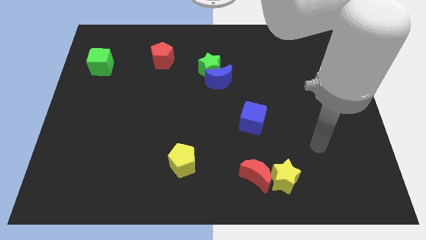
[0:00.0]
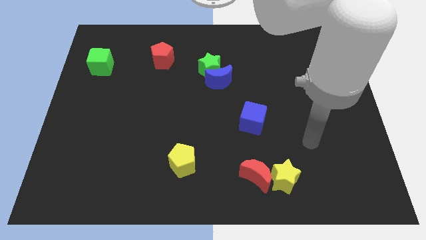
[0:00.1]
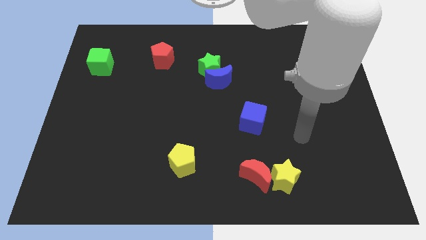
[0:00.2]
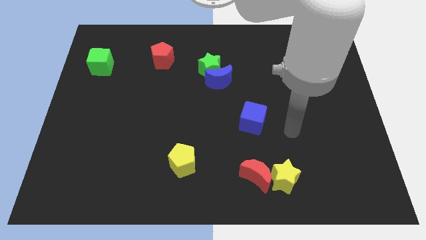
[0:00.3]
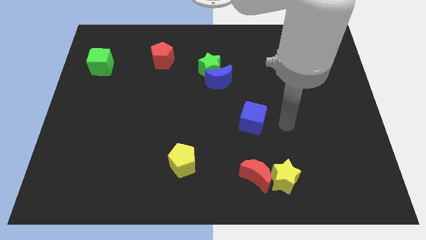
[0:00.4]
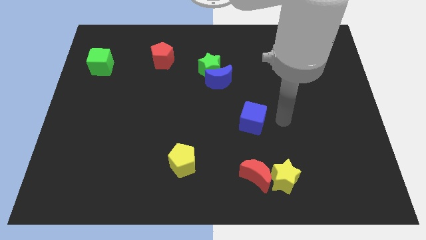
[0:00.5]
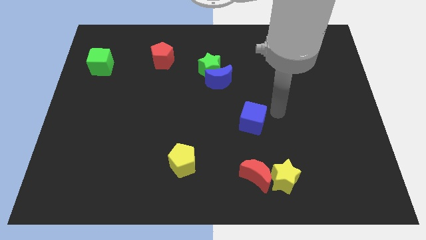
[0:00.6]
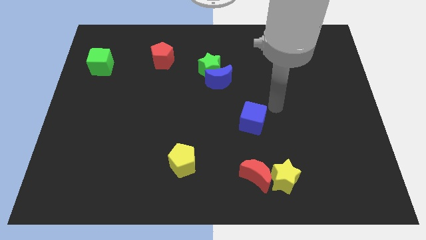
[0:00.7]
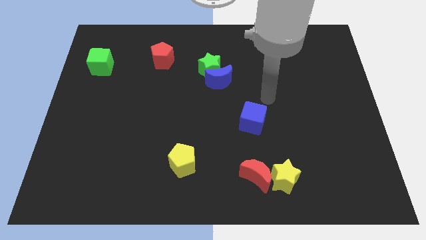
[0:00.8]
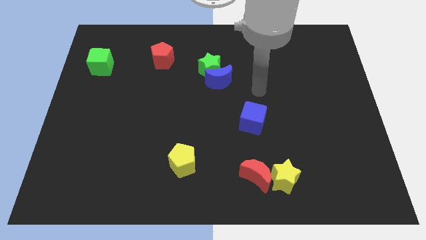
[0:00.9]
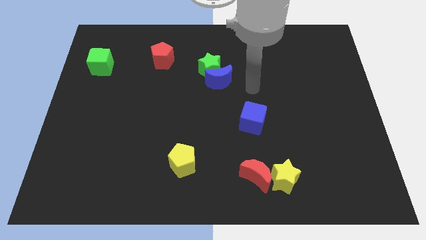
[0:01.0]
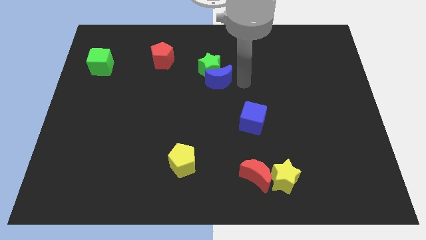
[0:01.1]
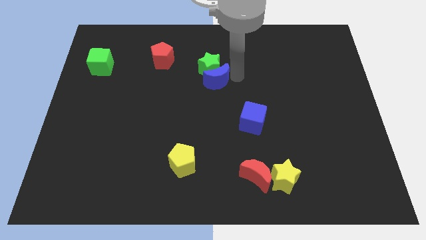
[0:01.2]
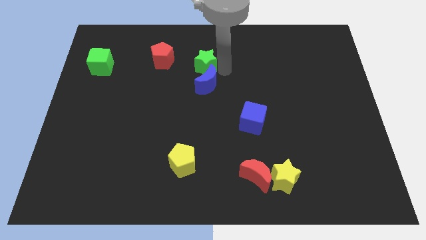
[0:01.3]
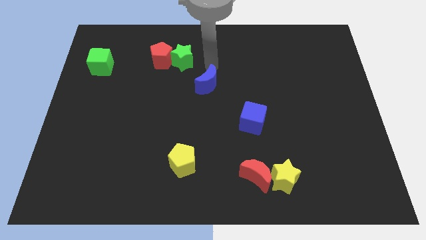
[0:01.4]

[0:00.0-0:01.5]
separate the blue moon from the green star

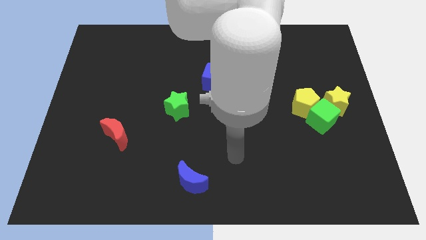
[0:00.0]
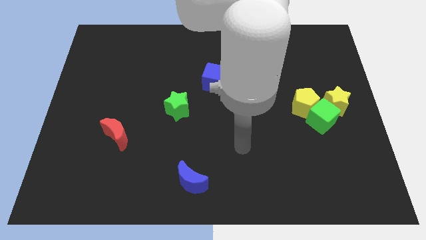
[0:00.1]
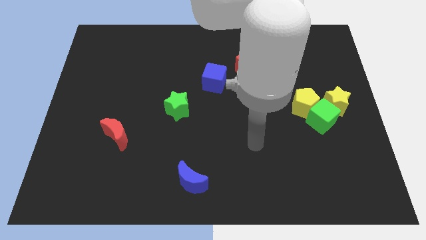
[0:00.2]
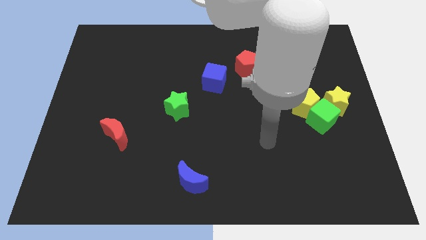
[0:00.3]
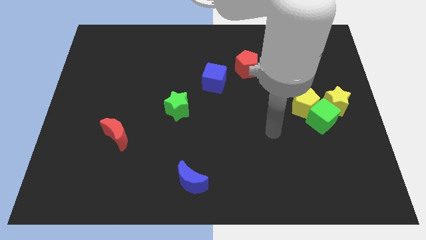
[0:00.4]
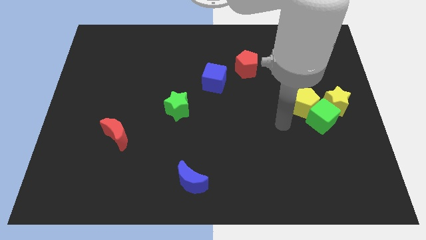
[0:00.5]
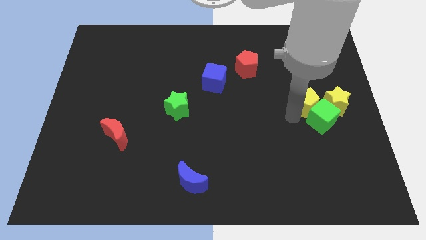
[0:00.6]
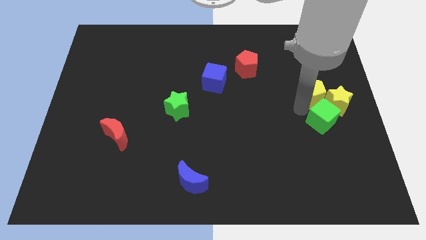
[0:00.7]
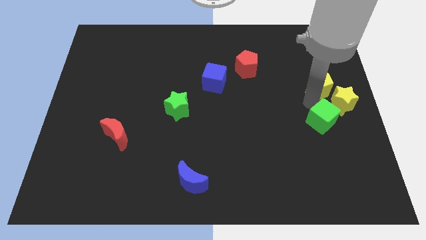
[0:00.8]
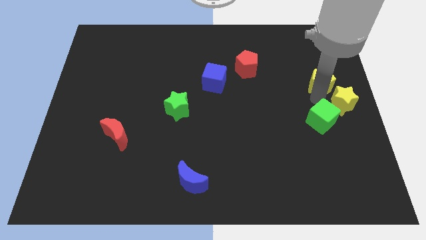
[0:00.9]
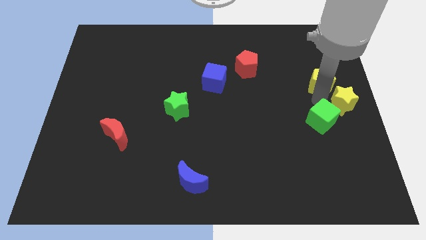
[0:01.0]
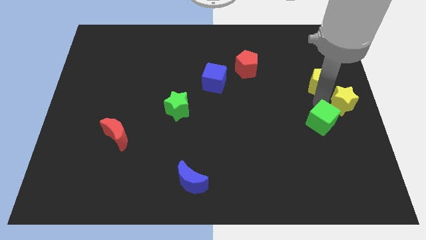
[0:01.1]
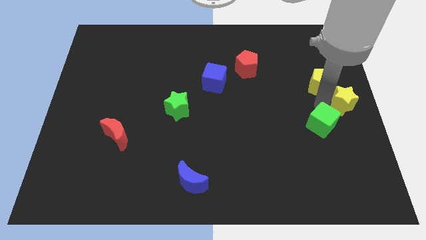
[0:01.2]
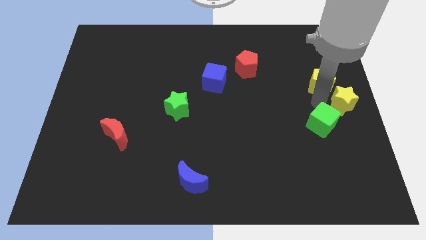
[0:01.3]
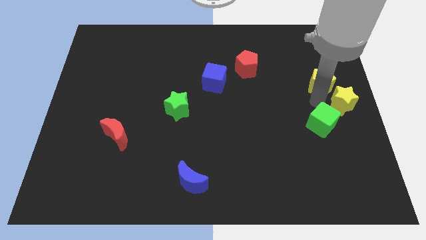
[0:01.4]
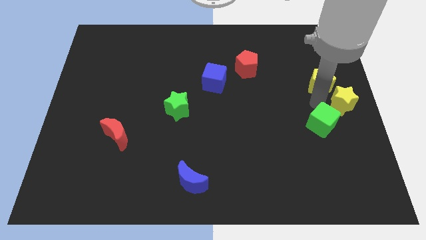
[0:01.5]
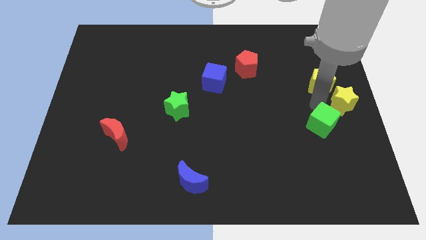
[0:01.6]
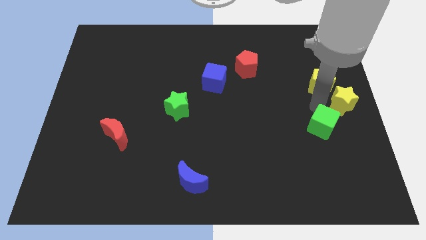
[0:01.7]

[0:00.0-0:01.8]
pull the green cube apart from the yellow pentagon and yellow star

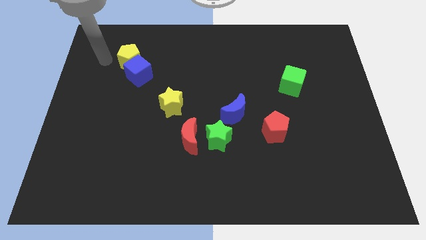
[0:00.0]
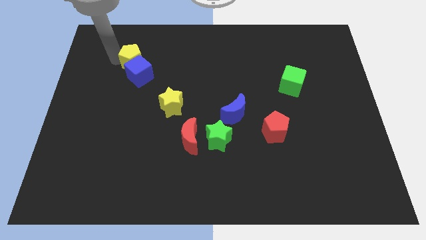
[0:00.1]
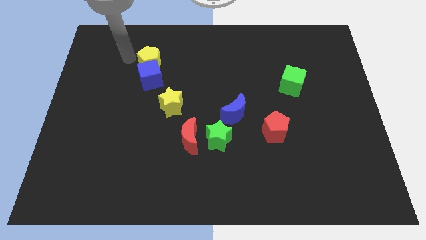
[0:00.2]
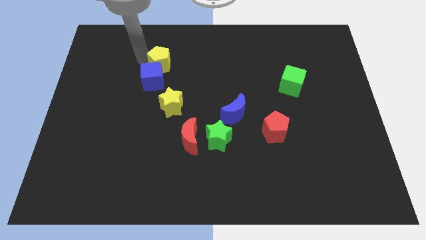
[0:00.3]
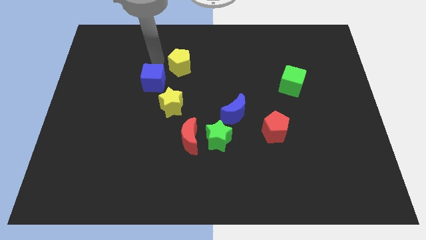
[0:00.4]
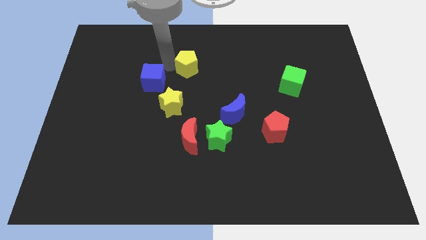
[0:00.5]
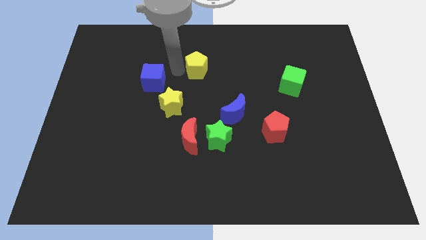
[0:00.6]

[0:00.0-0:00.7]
move the blue cube away from the yellow pentagon

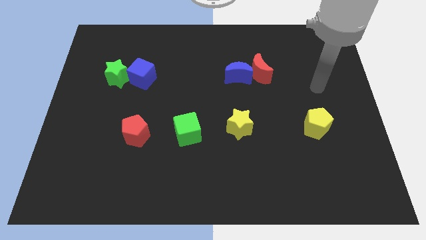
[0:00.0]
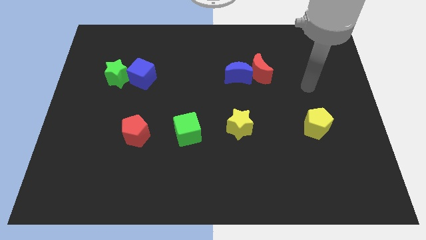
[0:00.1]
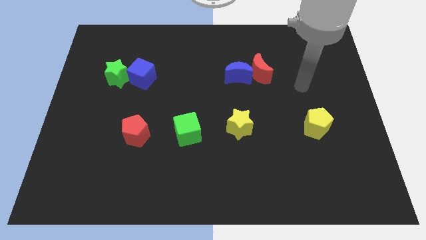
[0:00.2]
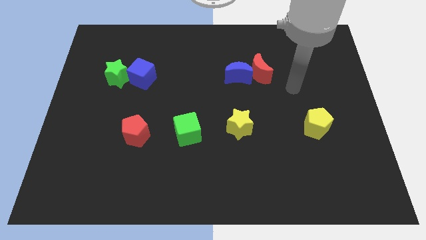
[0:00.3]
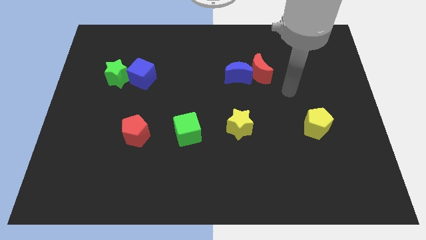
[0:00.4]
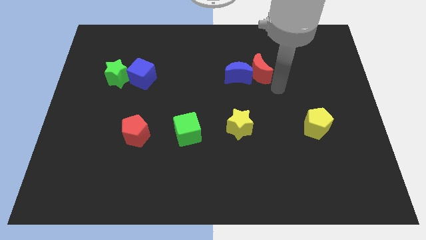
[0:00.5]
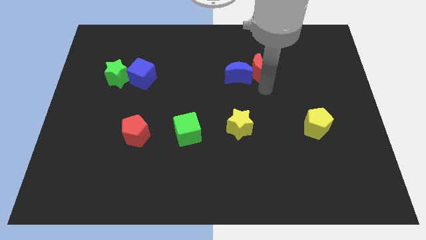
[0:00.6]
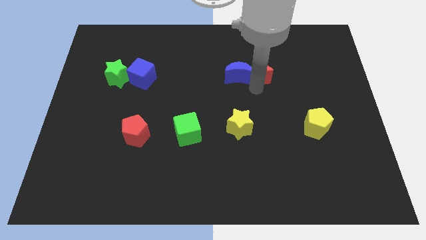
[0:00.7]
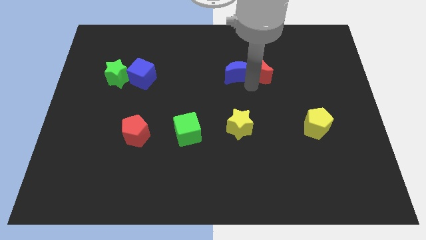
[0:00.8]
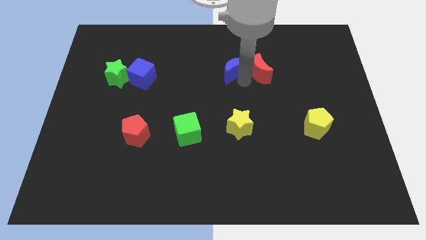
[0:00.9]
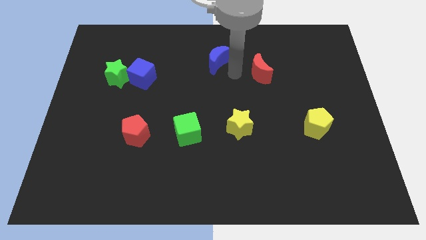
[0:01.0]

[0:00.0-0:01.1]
separate the red moon from the blue moon

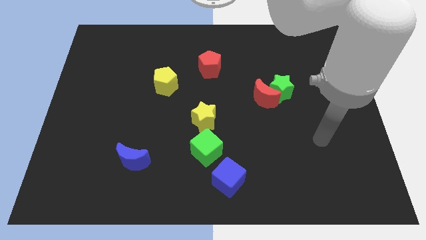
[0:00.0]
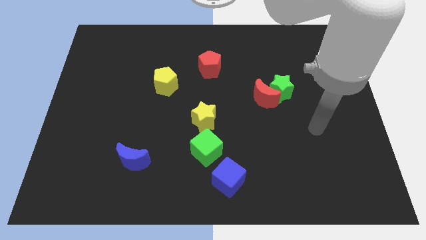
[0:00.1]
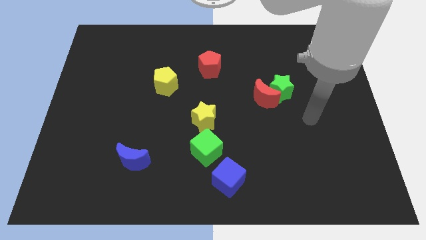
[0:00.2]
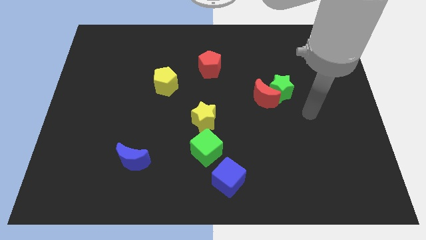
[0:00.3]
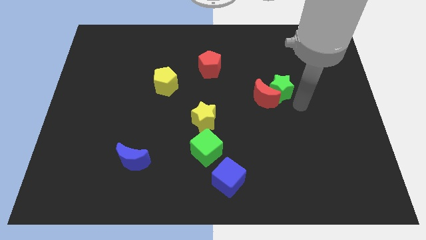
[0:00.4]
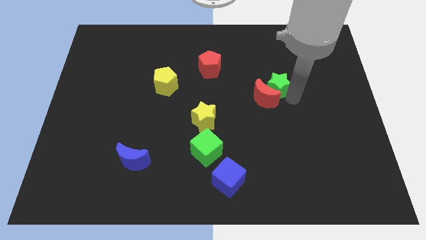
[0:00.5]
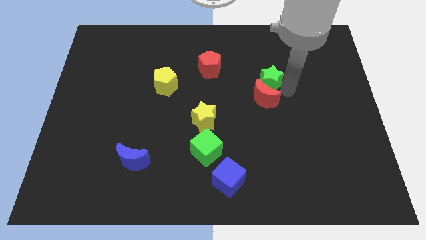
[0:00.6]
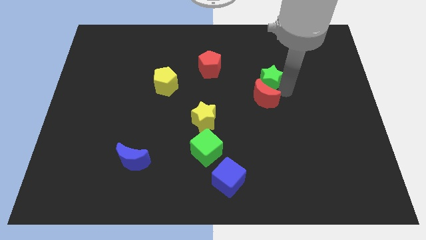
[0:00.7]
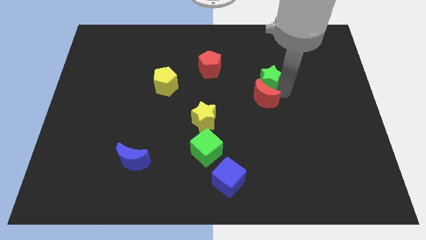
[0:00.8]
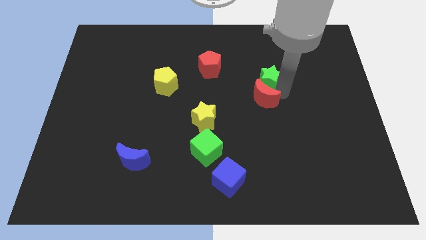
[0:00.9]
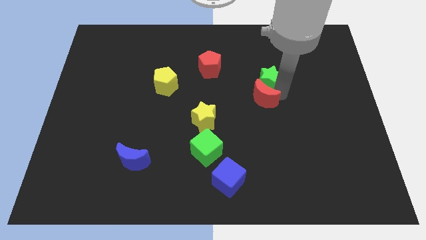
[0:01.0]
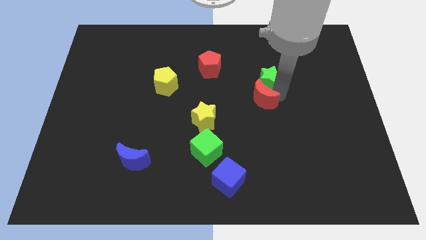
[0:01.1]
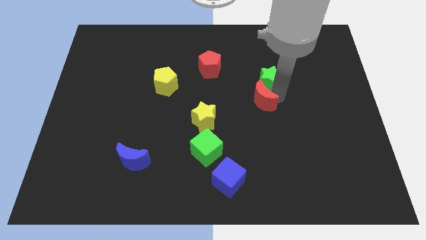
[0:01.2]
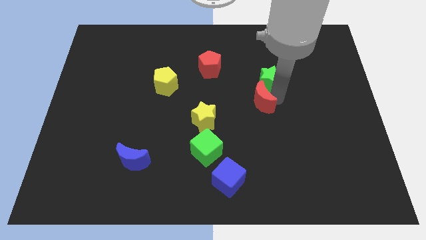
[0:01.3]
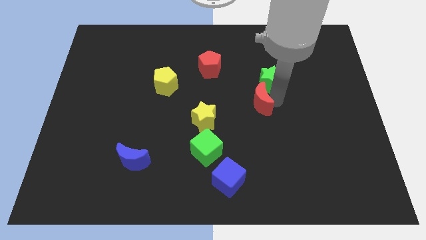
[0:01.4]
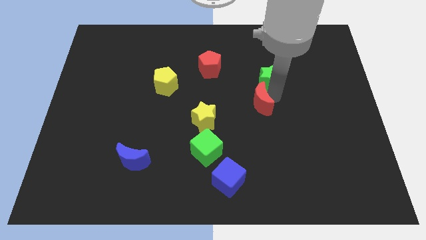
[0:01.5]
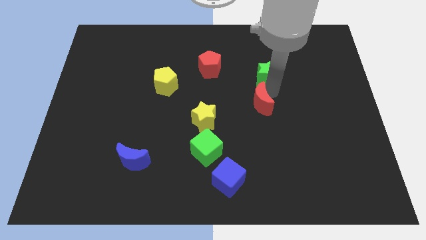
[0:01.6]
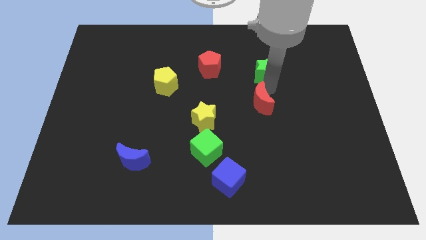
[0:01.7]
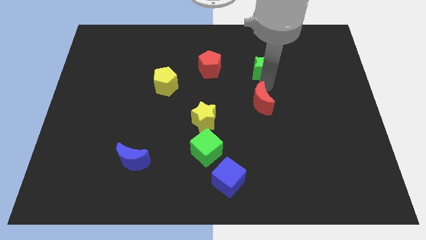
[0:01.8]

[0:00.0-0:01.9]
pull the red moon apart from the green star

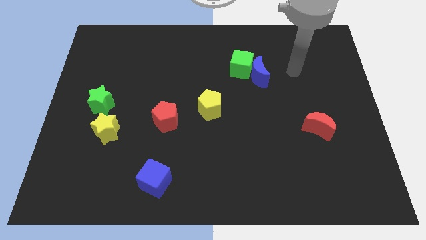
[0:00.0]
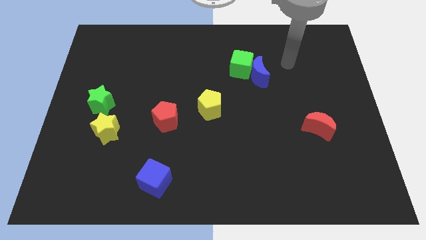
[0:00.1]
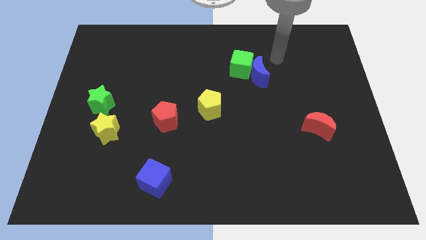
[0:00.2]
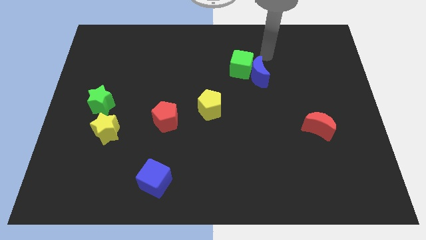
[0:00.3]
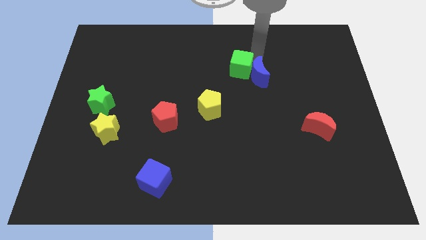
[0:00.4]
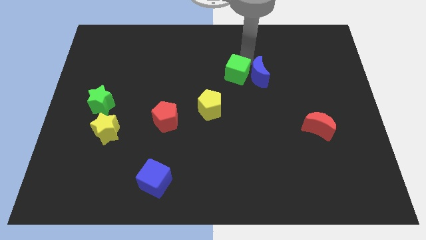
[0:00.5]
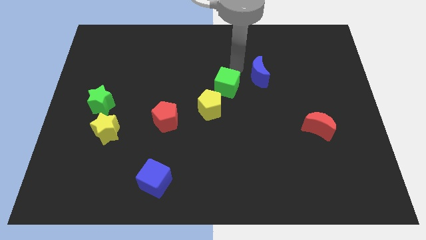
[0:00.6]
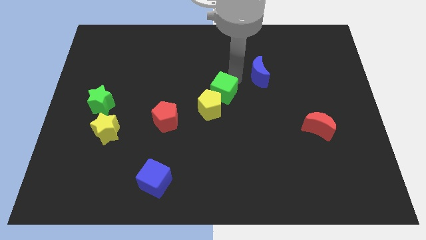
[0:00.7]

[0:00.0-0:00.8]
pull the blue moon apart from the green cube

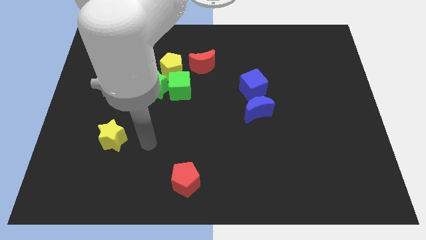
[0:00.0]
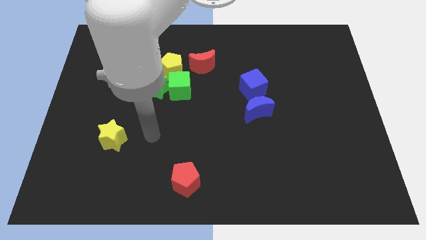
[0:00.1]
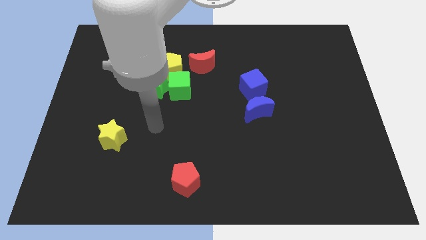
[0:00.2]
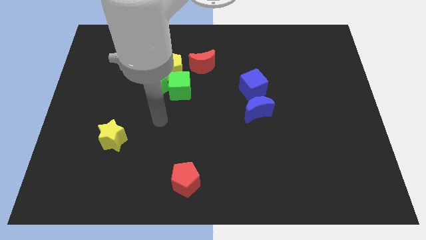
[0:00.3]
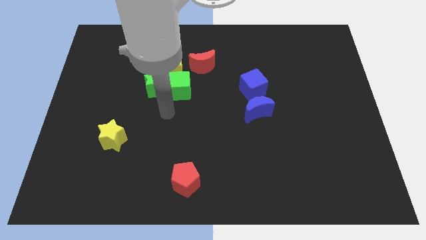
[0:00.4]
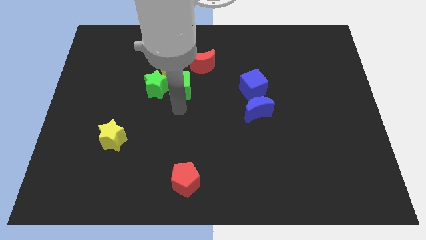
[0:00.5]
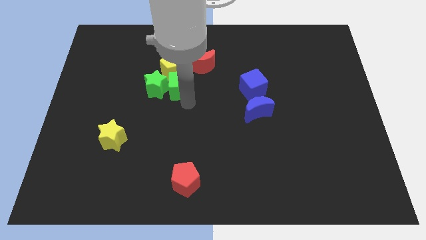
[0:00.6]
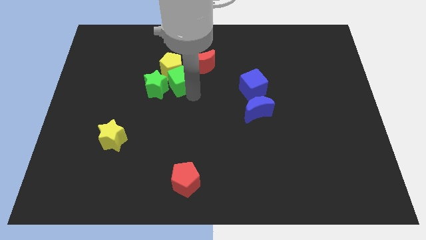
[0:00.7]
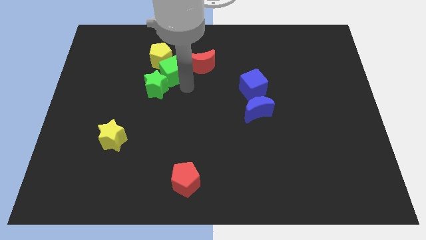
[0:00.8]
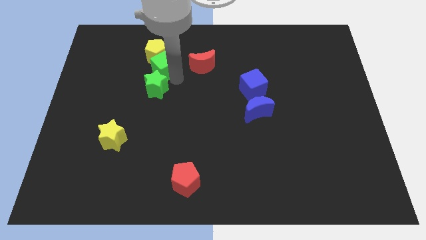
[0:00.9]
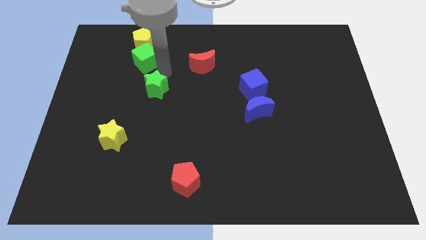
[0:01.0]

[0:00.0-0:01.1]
pull the green star apart from the green cube and yellow pentagon

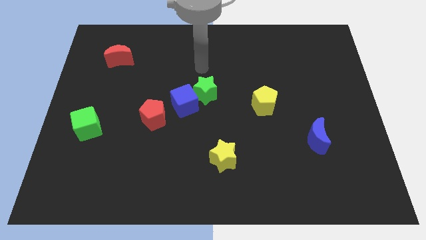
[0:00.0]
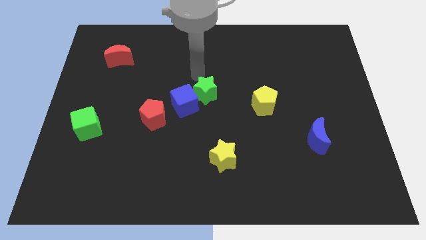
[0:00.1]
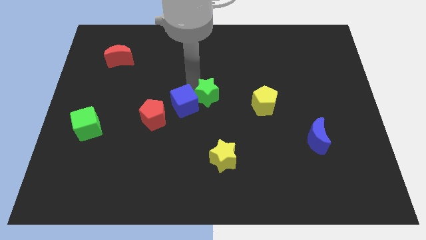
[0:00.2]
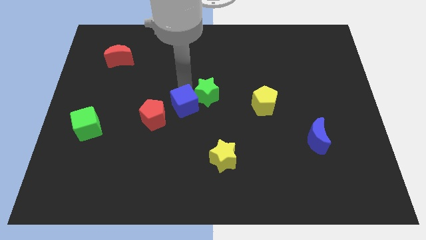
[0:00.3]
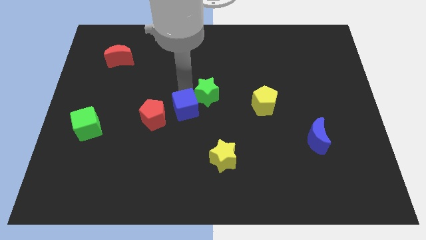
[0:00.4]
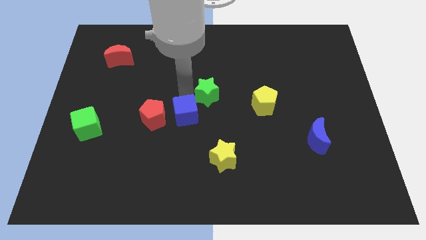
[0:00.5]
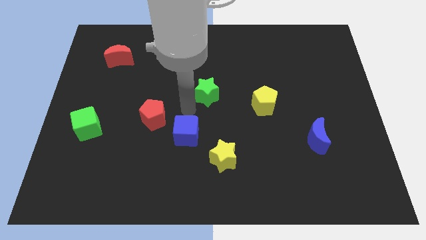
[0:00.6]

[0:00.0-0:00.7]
move the green star away from the blue cube
